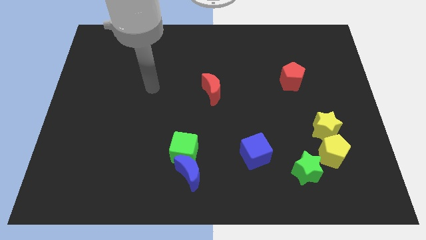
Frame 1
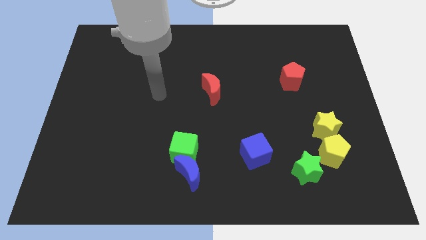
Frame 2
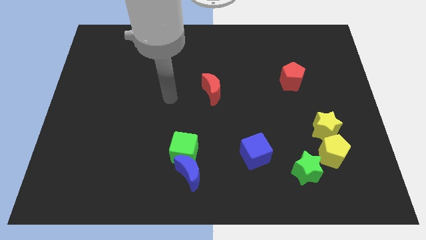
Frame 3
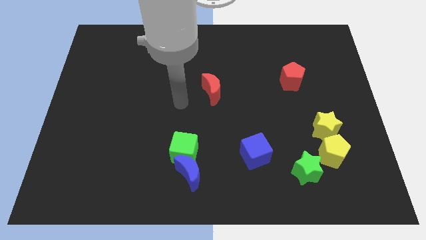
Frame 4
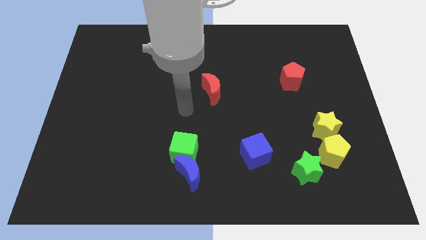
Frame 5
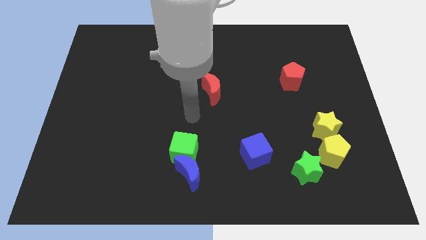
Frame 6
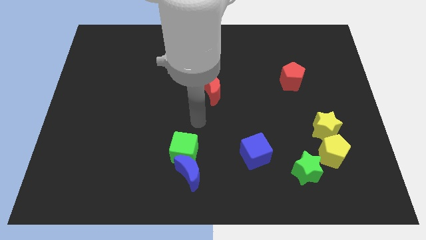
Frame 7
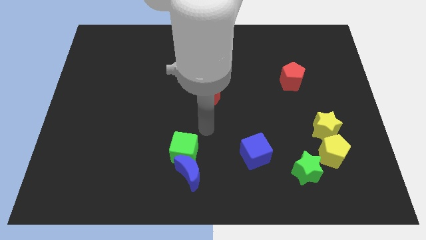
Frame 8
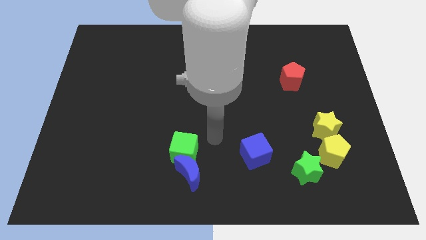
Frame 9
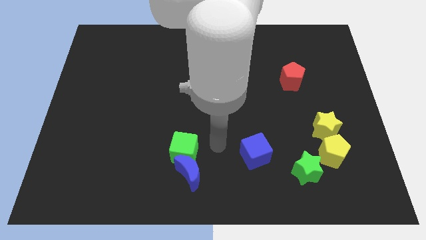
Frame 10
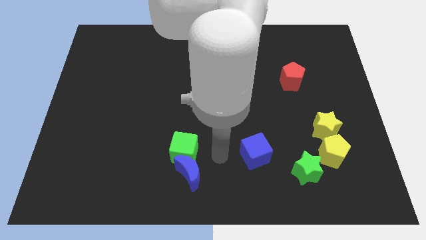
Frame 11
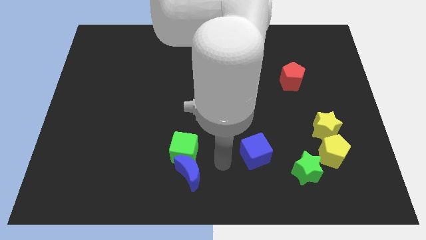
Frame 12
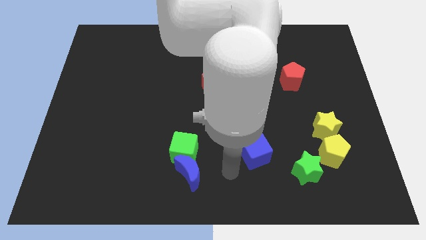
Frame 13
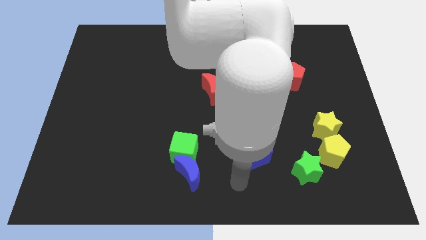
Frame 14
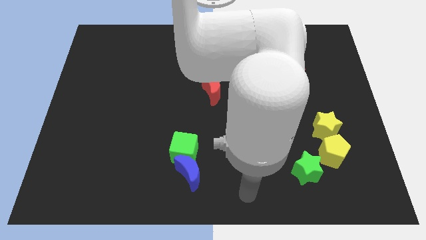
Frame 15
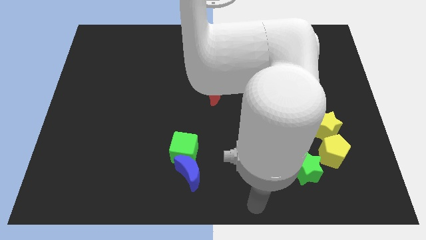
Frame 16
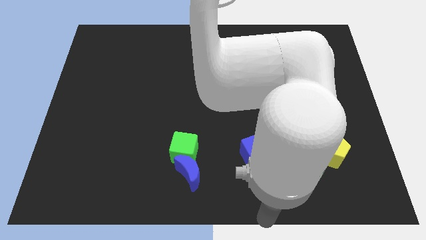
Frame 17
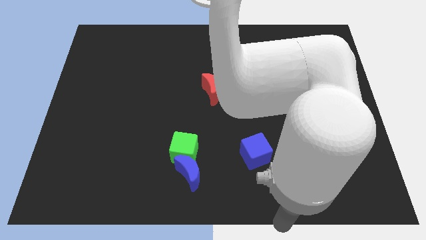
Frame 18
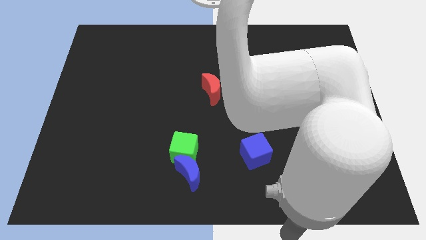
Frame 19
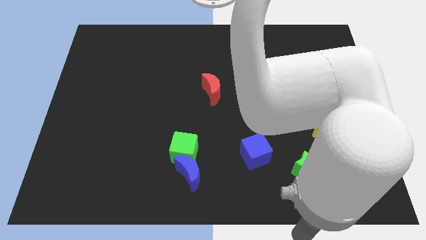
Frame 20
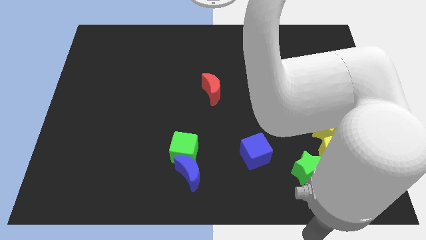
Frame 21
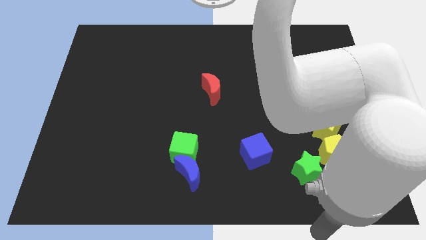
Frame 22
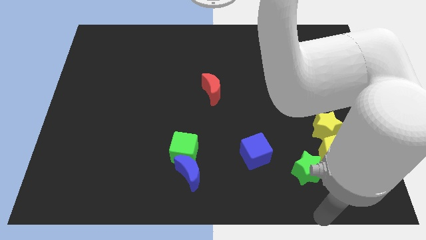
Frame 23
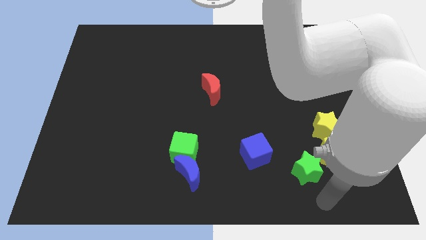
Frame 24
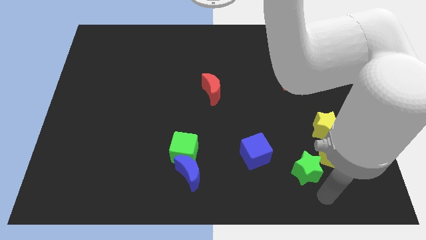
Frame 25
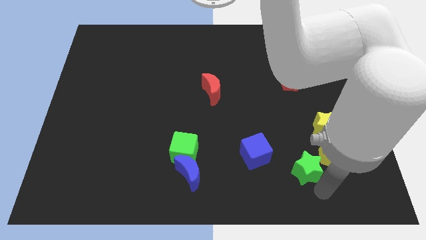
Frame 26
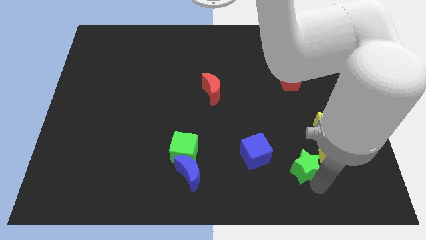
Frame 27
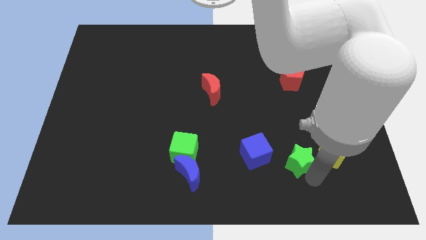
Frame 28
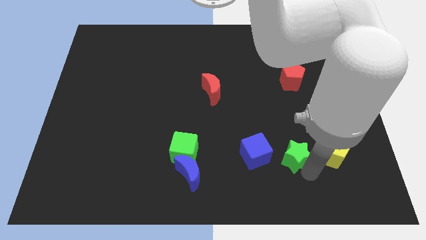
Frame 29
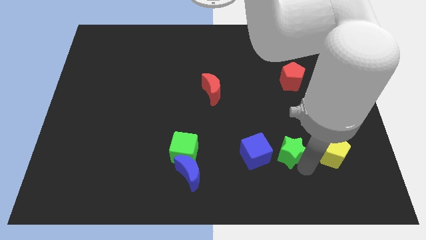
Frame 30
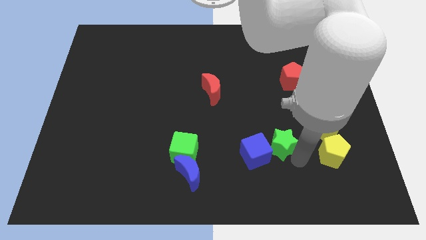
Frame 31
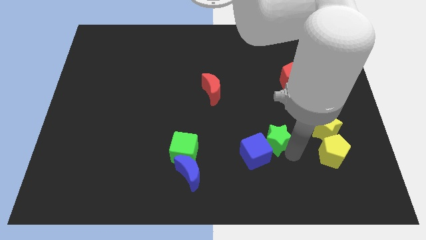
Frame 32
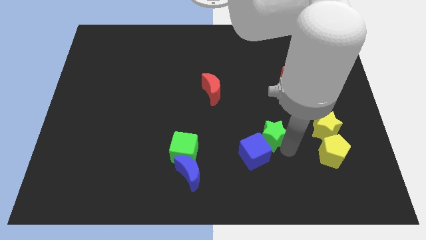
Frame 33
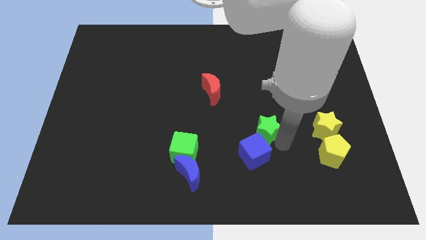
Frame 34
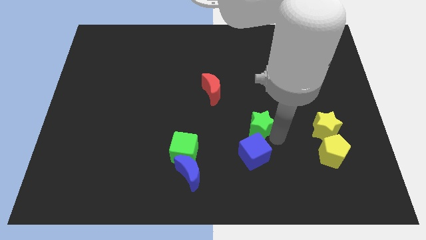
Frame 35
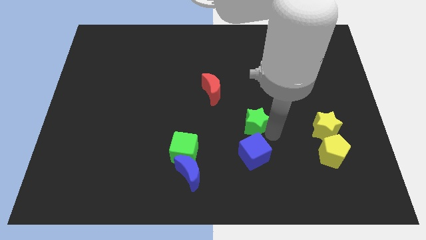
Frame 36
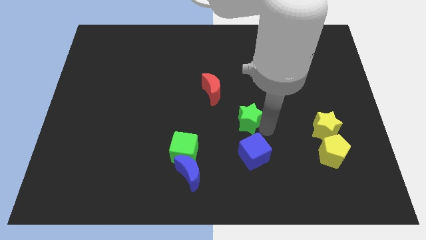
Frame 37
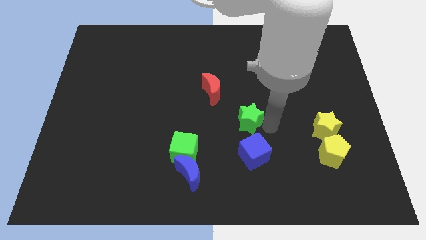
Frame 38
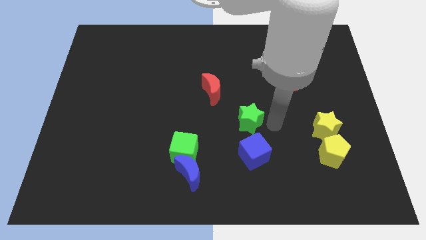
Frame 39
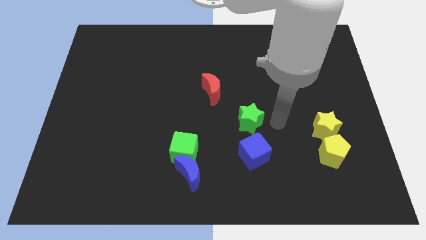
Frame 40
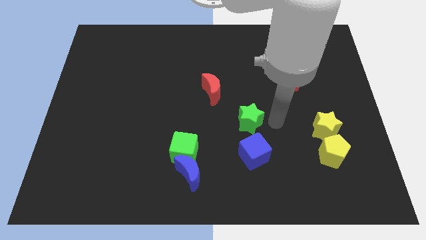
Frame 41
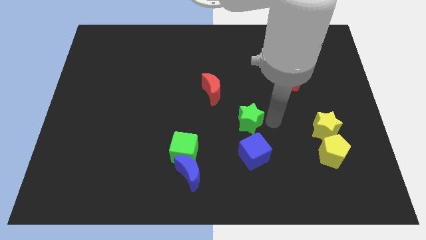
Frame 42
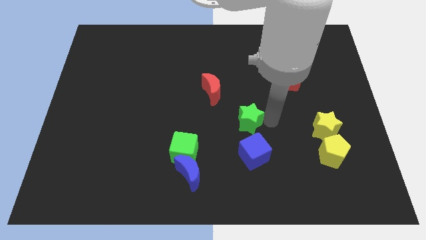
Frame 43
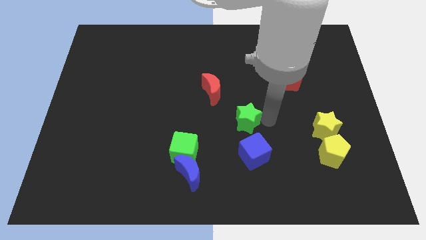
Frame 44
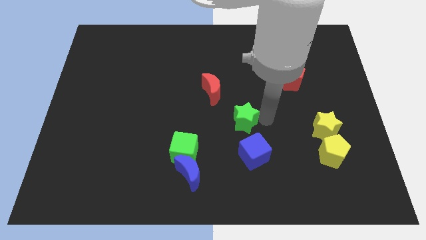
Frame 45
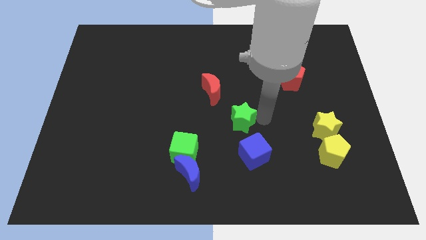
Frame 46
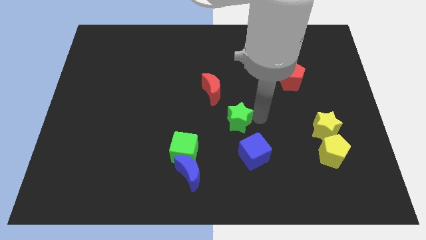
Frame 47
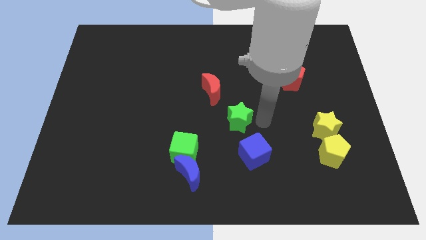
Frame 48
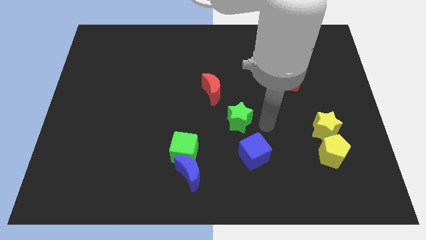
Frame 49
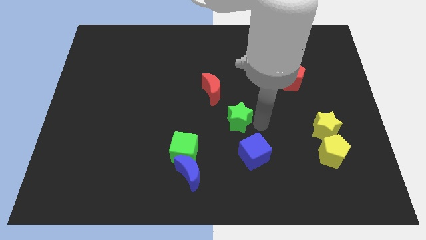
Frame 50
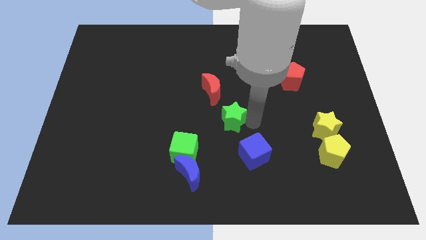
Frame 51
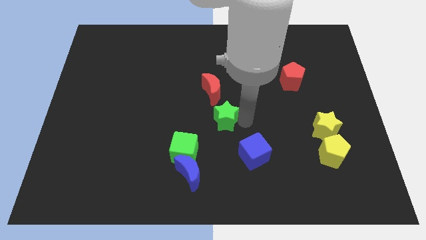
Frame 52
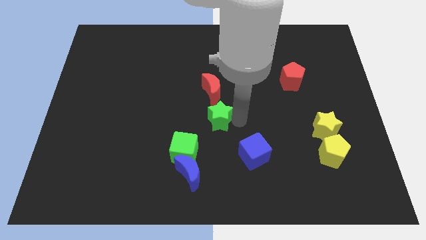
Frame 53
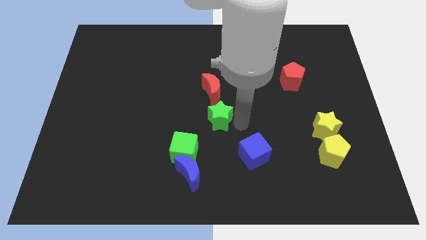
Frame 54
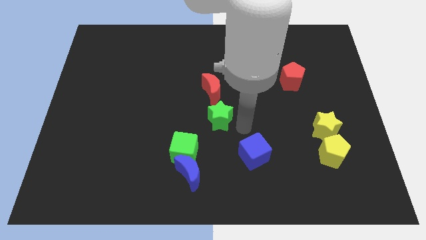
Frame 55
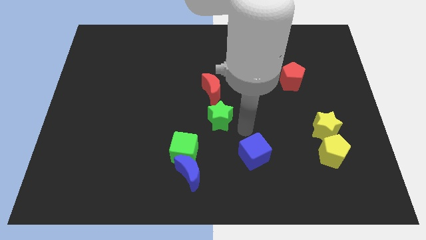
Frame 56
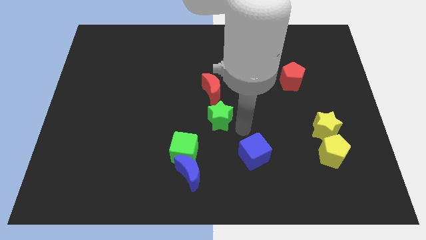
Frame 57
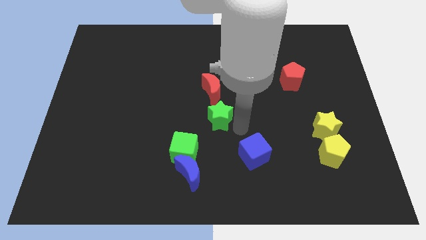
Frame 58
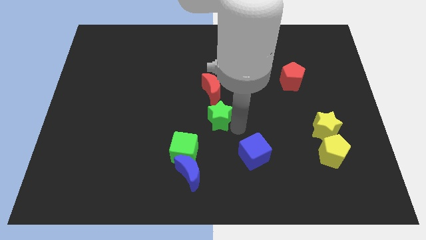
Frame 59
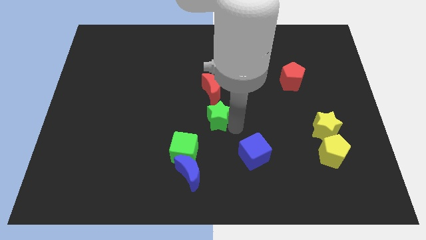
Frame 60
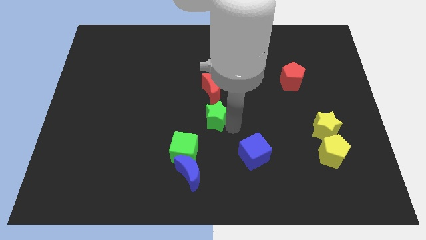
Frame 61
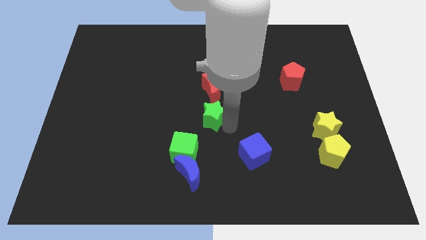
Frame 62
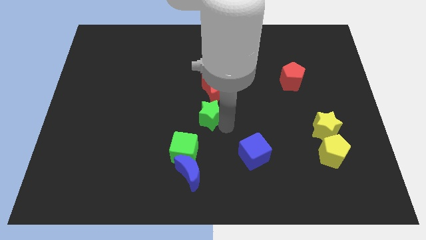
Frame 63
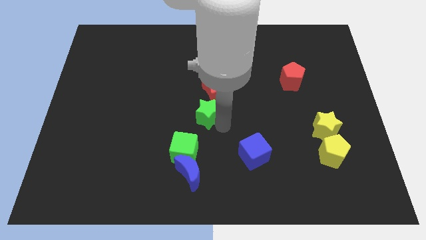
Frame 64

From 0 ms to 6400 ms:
push the green star to the bottom left of the red moon

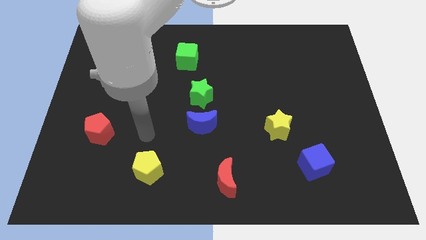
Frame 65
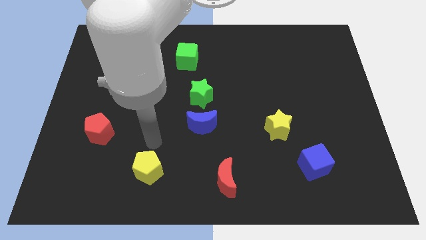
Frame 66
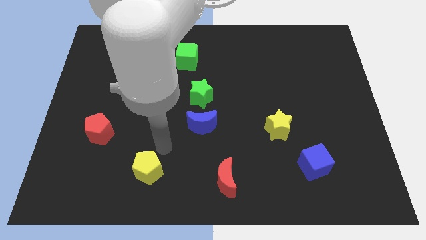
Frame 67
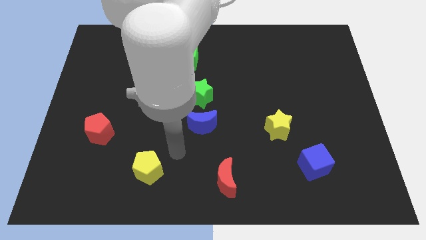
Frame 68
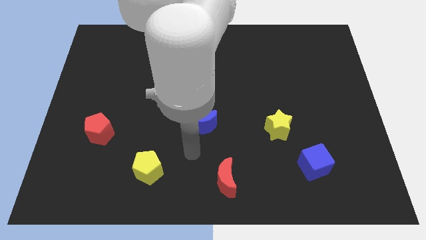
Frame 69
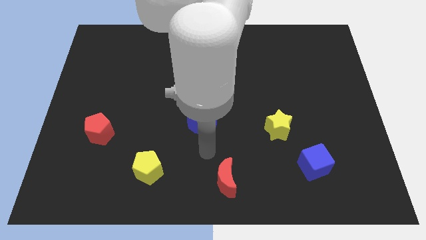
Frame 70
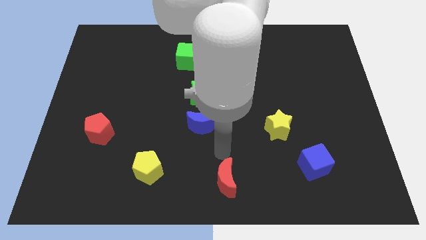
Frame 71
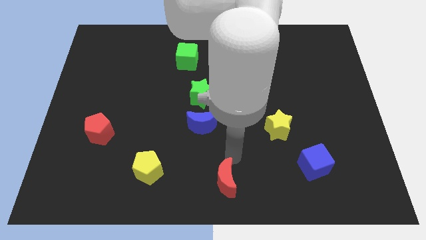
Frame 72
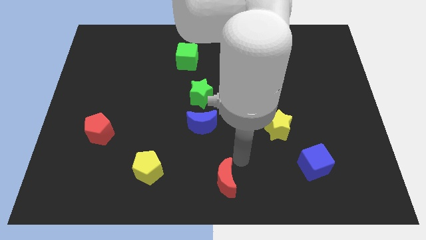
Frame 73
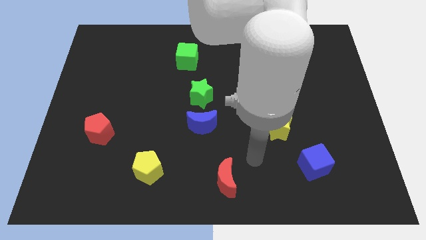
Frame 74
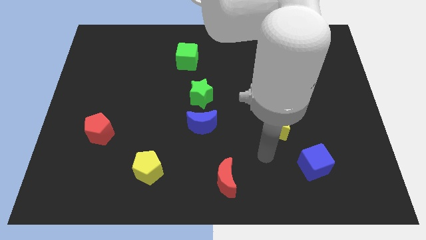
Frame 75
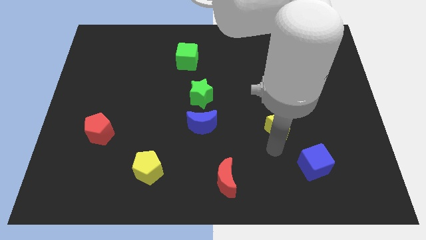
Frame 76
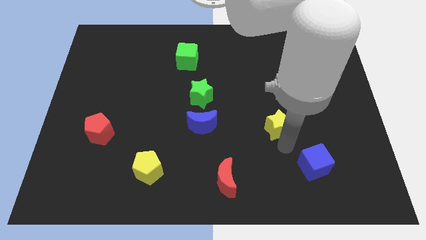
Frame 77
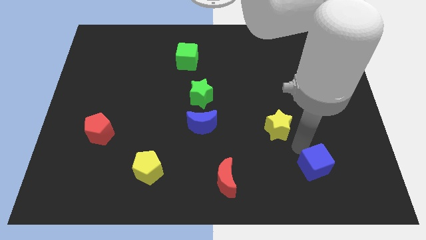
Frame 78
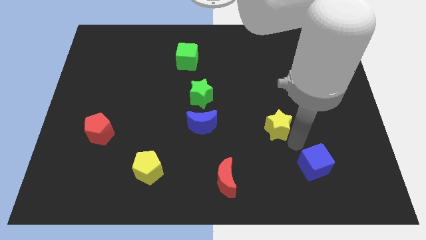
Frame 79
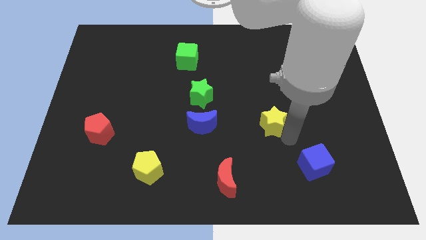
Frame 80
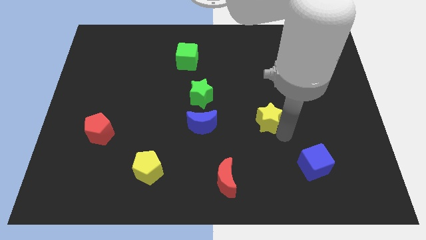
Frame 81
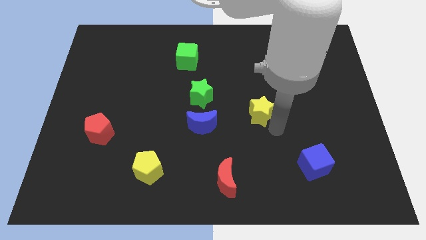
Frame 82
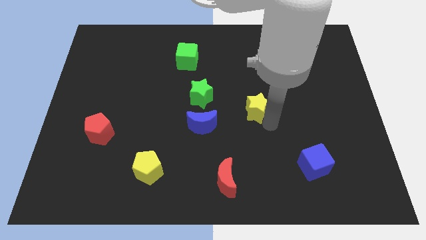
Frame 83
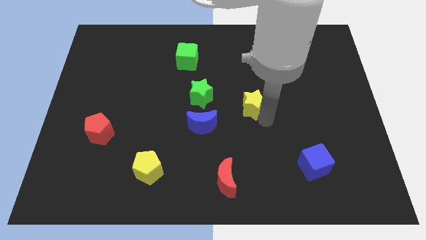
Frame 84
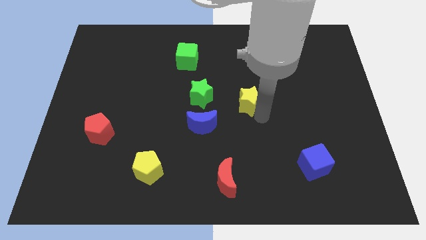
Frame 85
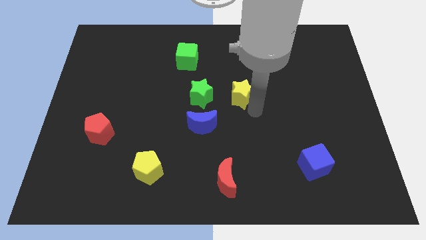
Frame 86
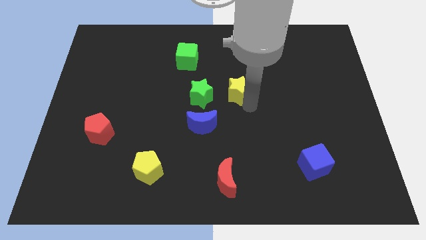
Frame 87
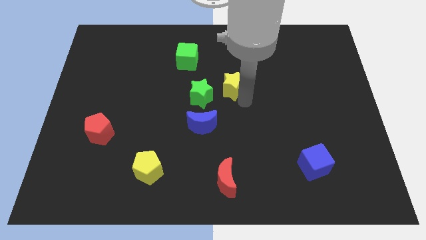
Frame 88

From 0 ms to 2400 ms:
push the yellow star to the top right of the green star
